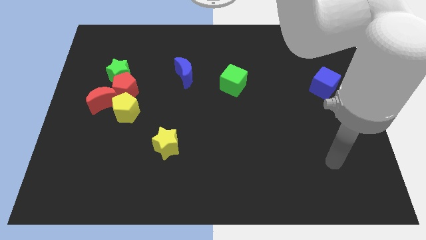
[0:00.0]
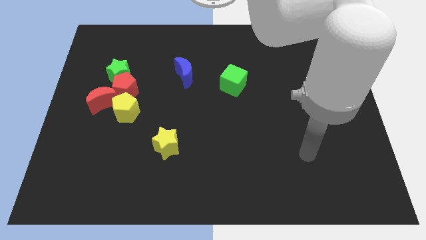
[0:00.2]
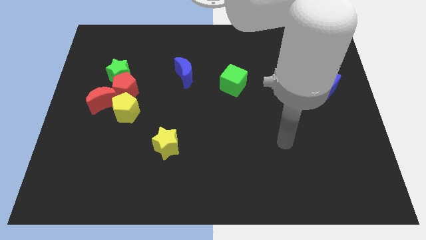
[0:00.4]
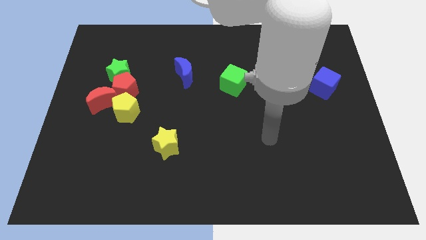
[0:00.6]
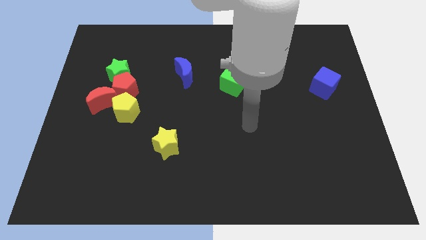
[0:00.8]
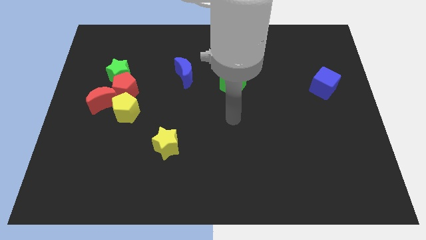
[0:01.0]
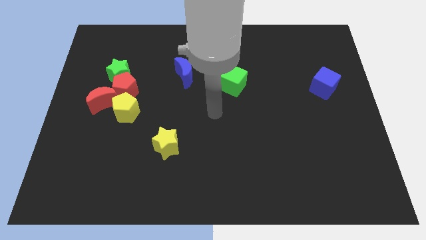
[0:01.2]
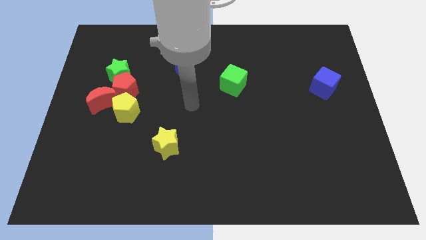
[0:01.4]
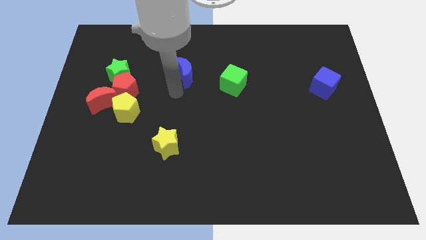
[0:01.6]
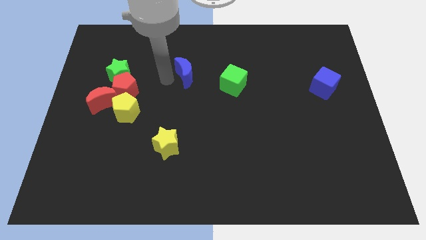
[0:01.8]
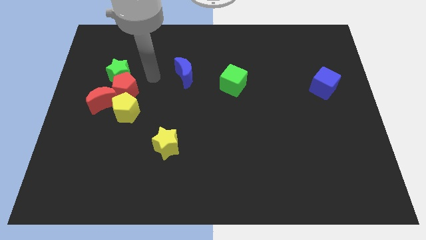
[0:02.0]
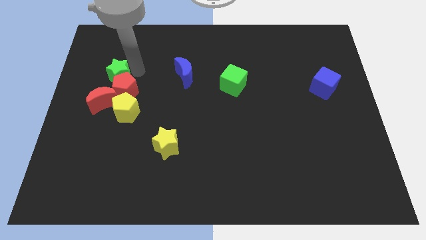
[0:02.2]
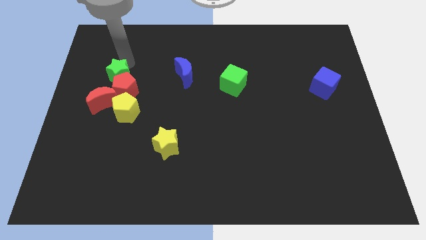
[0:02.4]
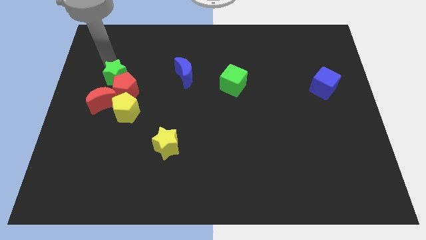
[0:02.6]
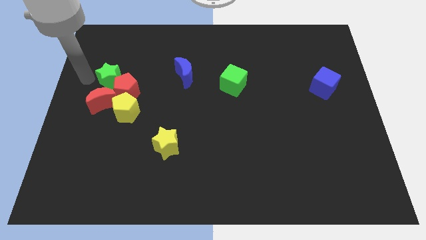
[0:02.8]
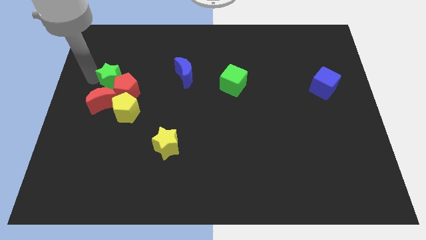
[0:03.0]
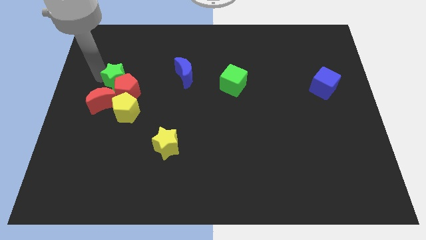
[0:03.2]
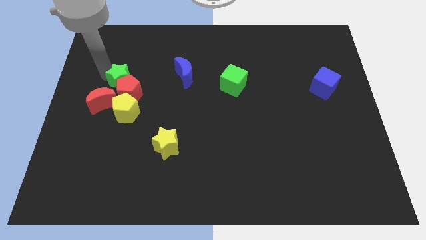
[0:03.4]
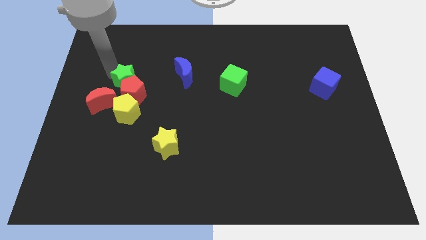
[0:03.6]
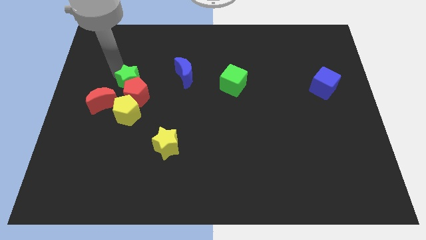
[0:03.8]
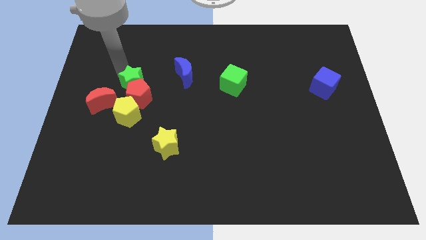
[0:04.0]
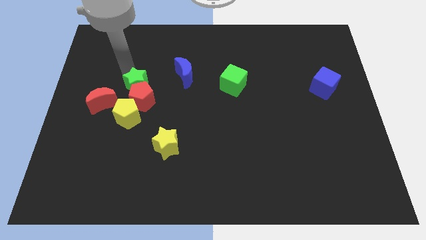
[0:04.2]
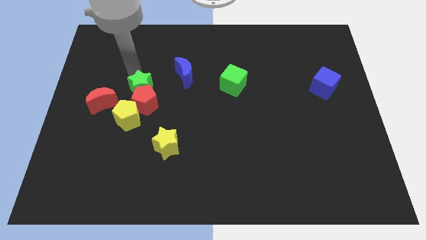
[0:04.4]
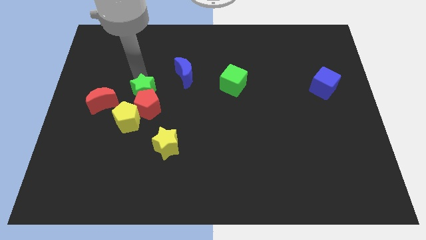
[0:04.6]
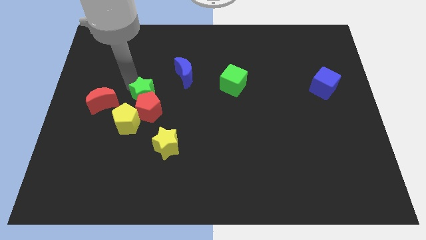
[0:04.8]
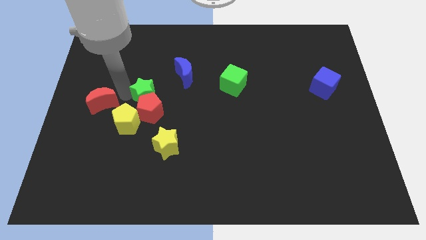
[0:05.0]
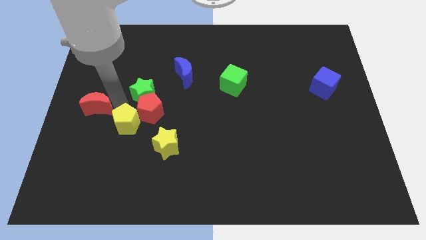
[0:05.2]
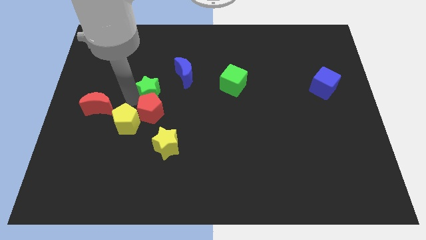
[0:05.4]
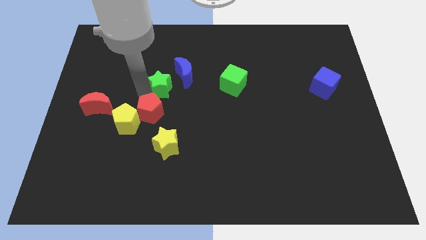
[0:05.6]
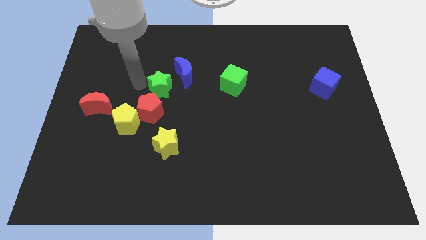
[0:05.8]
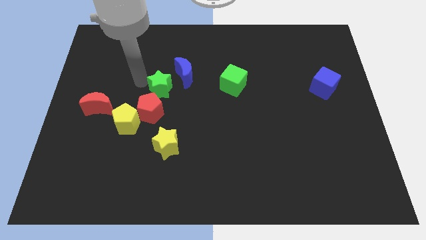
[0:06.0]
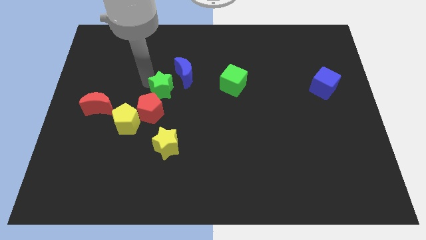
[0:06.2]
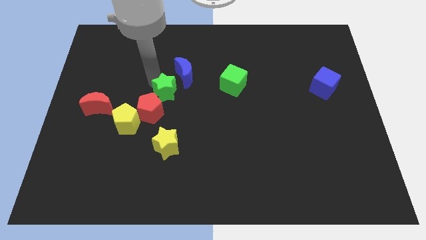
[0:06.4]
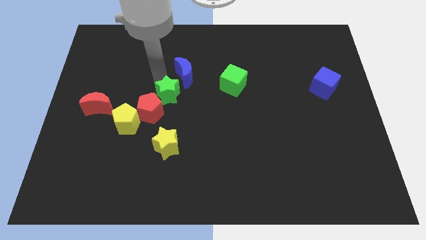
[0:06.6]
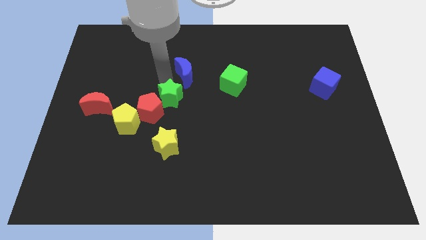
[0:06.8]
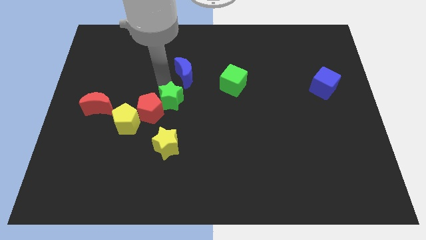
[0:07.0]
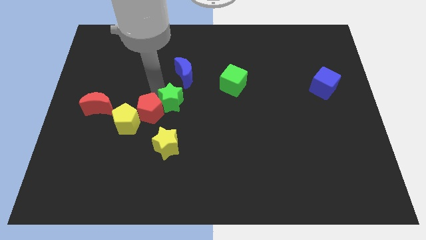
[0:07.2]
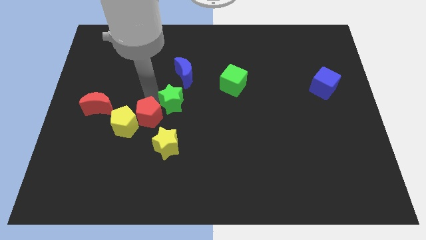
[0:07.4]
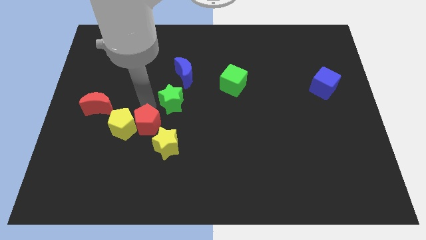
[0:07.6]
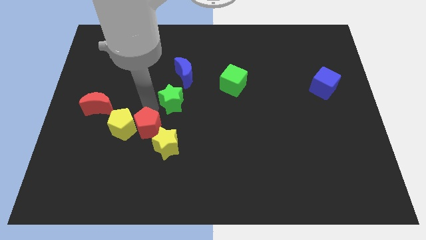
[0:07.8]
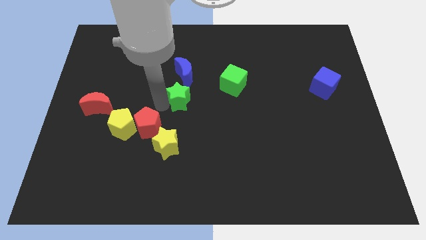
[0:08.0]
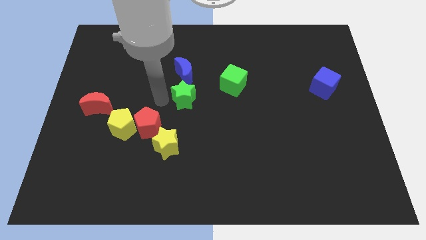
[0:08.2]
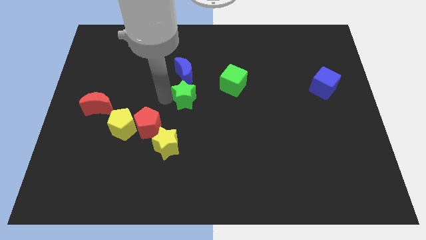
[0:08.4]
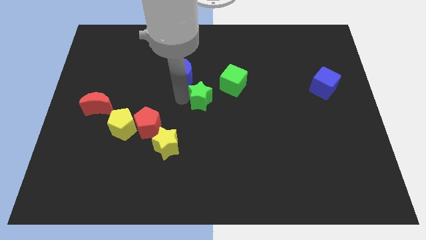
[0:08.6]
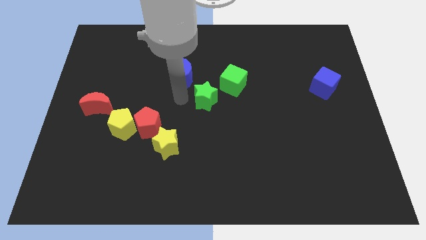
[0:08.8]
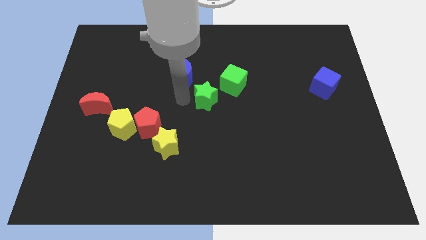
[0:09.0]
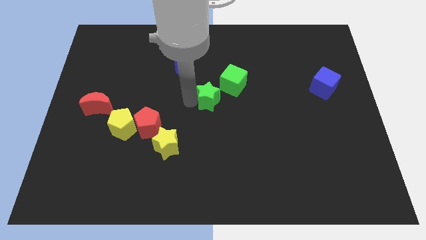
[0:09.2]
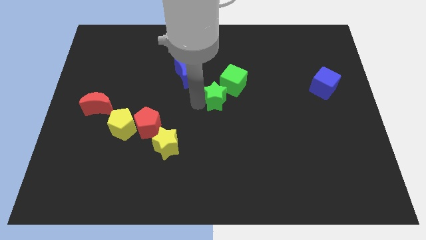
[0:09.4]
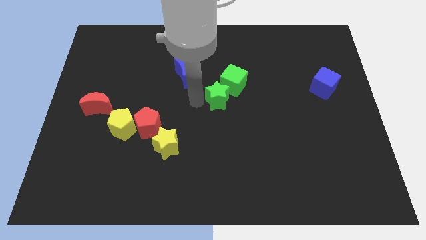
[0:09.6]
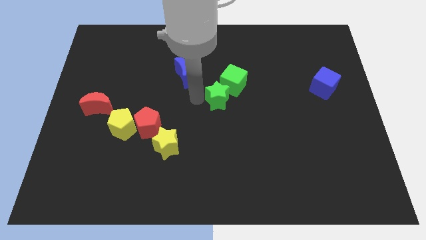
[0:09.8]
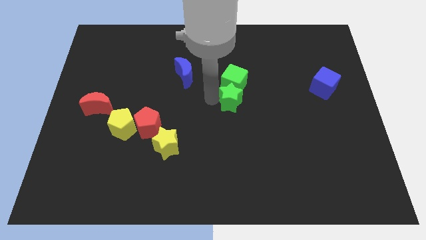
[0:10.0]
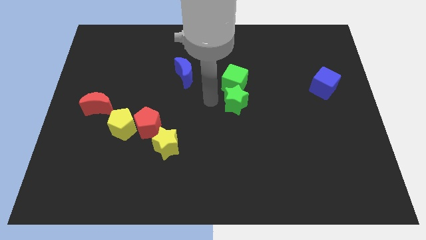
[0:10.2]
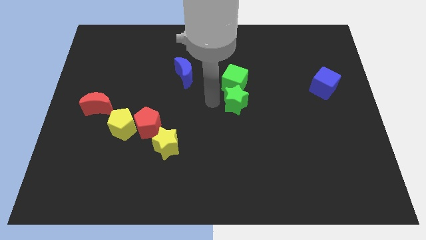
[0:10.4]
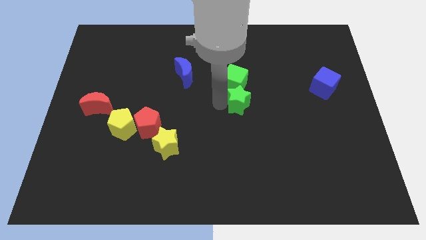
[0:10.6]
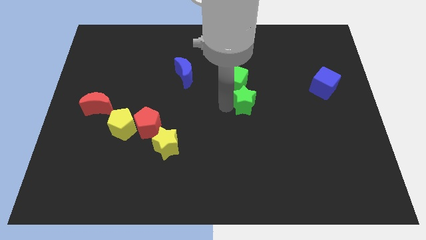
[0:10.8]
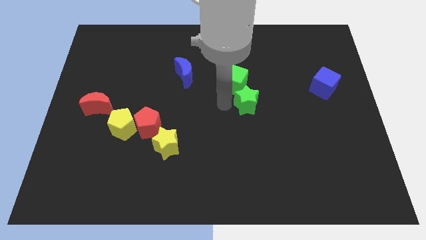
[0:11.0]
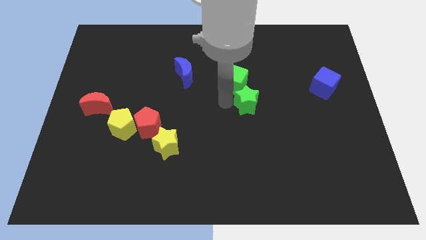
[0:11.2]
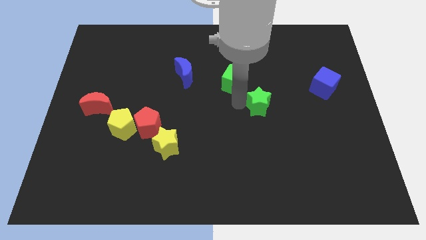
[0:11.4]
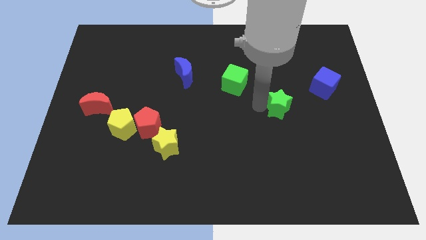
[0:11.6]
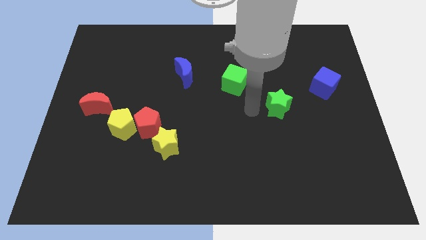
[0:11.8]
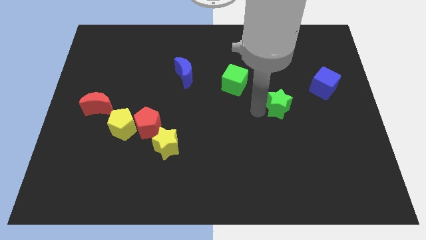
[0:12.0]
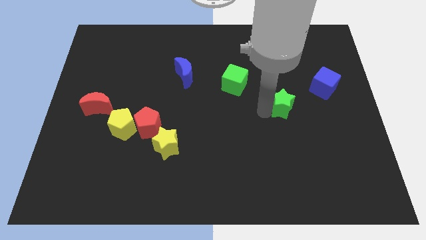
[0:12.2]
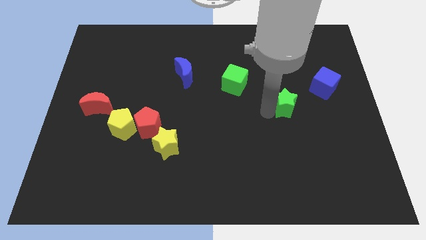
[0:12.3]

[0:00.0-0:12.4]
put the green star diagonally down and to the left of the blue cube

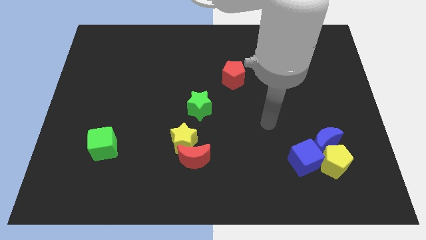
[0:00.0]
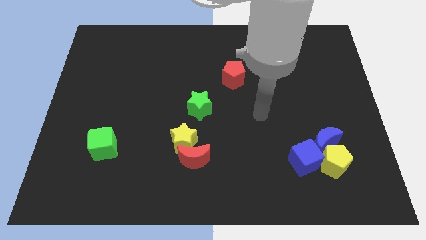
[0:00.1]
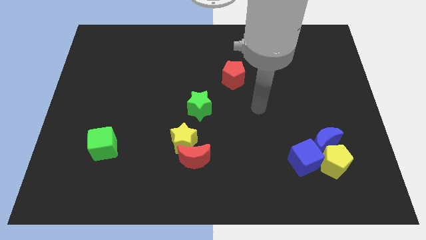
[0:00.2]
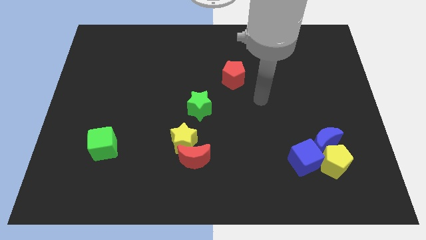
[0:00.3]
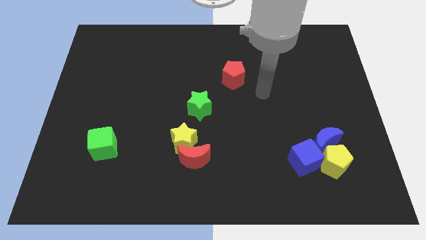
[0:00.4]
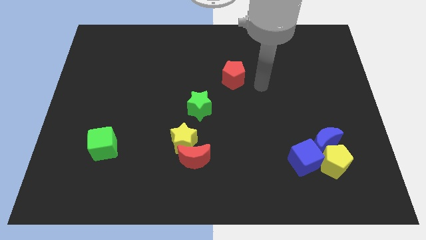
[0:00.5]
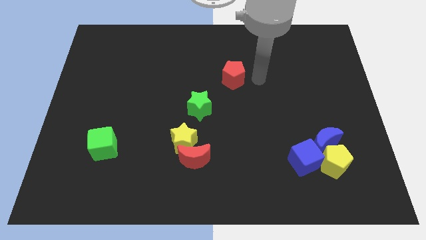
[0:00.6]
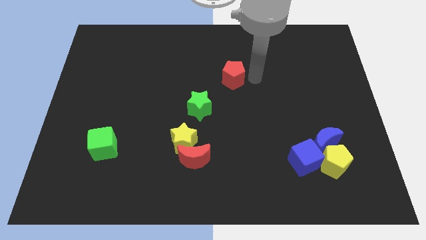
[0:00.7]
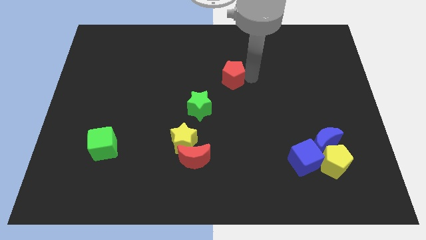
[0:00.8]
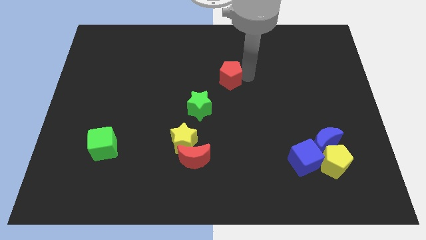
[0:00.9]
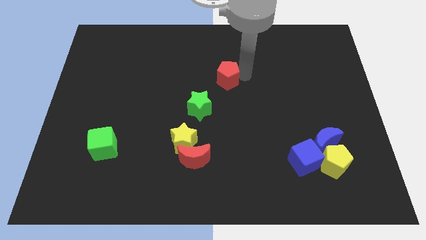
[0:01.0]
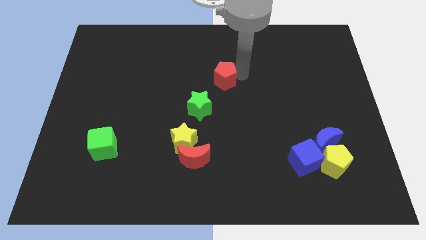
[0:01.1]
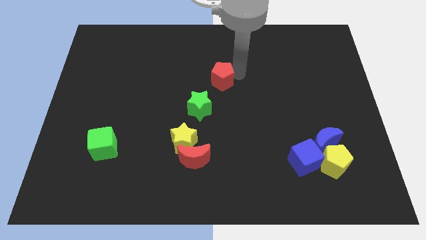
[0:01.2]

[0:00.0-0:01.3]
push the red pentagon to the top side of the green star
